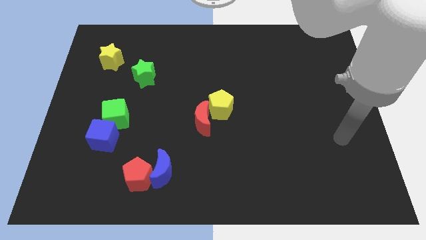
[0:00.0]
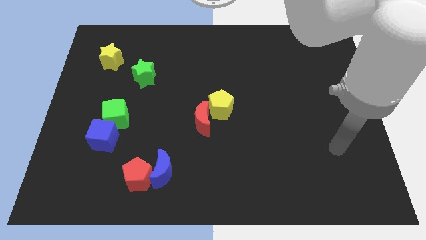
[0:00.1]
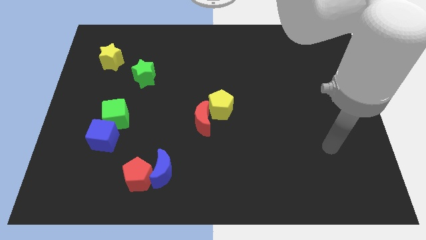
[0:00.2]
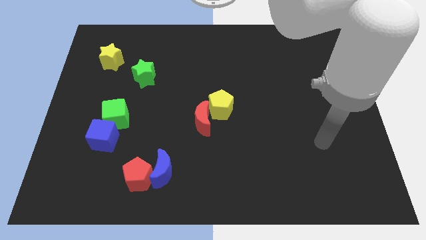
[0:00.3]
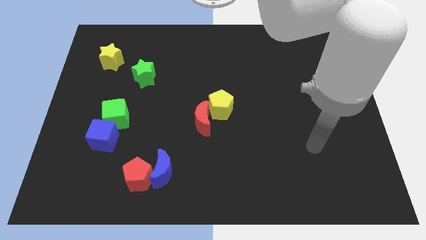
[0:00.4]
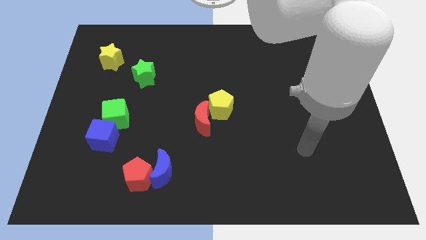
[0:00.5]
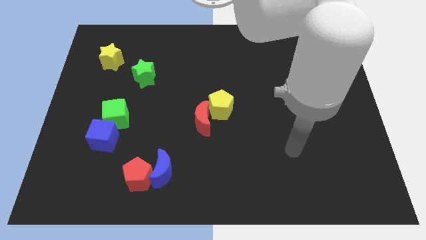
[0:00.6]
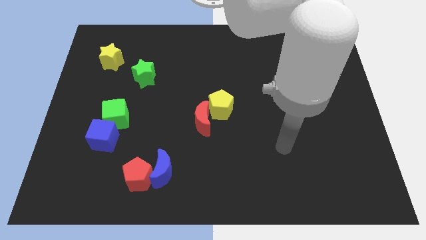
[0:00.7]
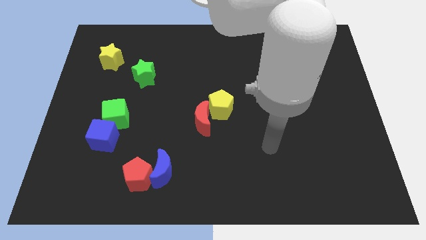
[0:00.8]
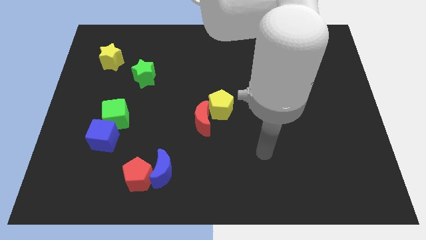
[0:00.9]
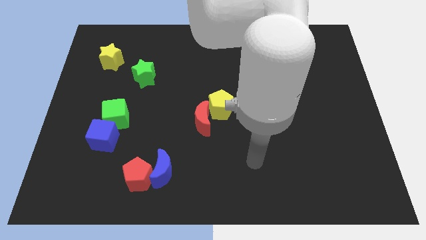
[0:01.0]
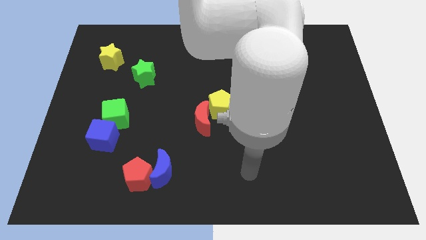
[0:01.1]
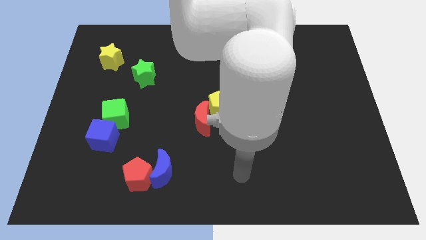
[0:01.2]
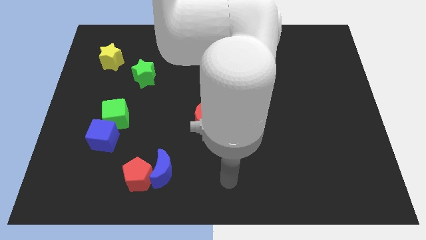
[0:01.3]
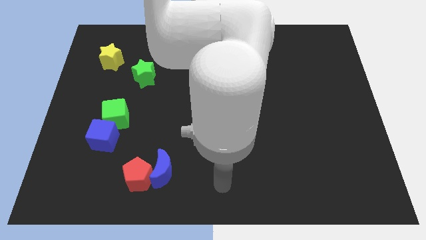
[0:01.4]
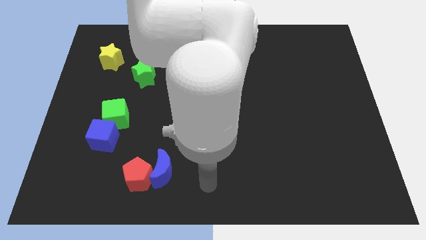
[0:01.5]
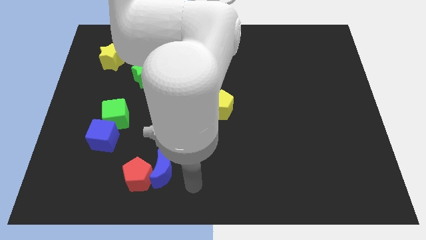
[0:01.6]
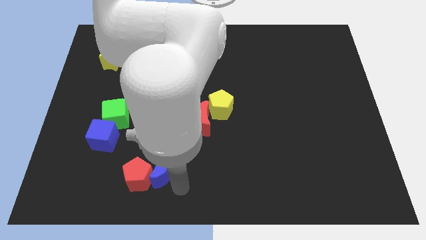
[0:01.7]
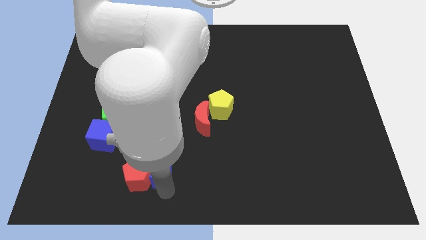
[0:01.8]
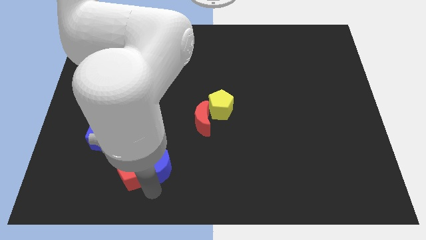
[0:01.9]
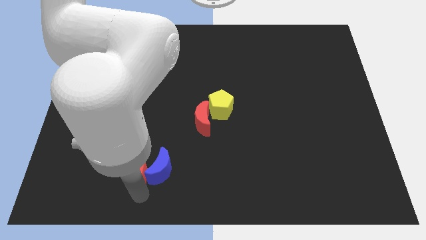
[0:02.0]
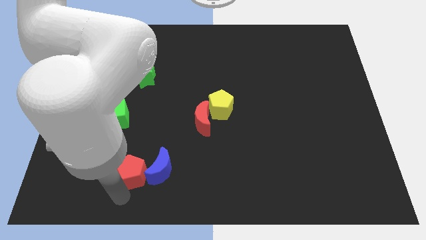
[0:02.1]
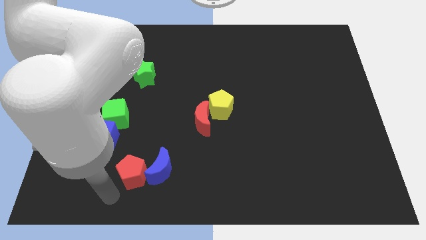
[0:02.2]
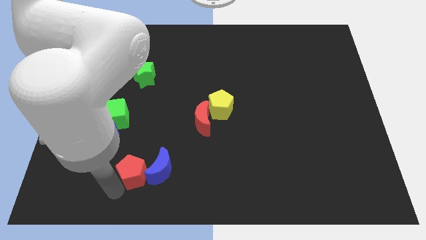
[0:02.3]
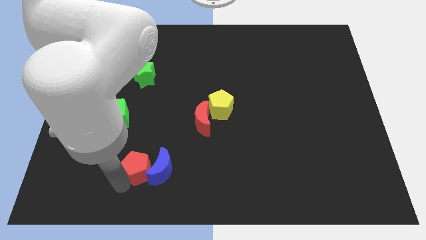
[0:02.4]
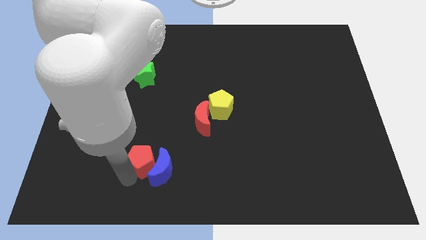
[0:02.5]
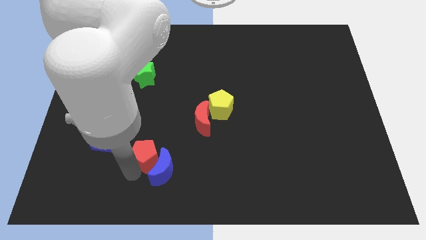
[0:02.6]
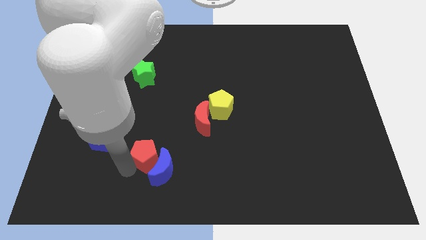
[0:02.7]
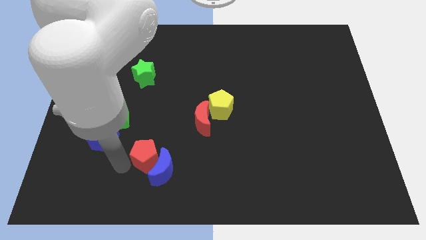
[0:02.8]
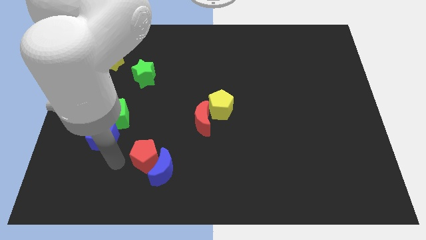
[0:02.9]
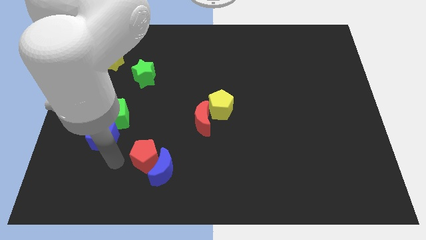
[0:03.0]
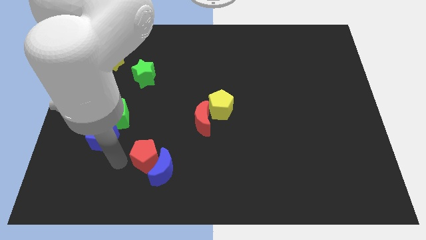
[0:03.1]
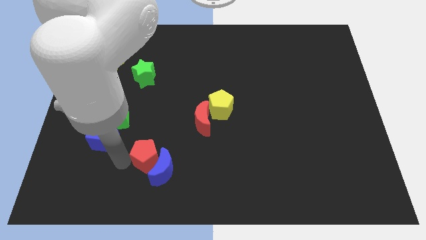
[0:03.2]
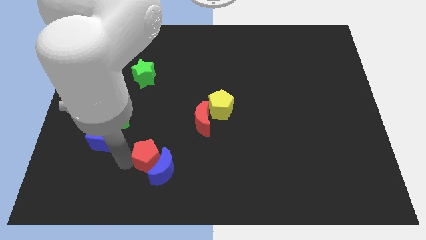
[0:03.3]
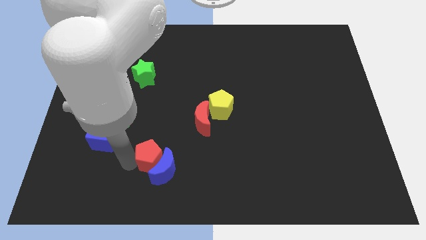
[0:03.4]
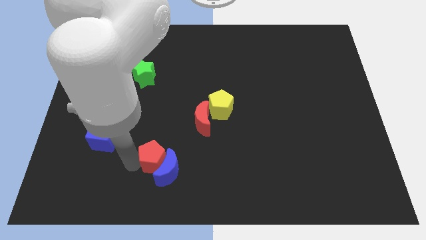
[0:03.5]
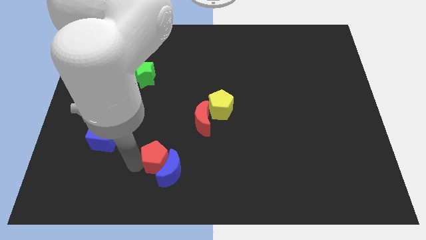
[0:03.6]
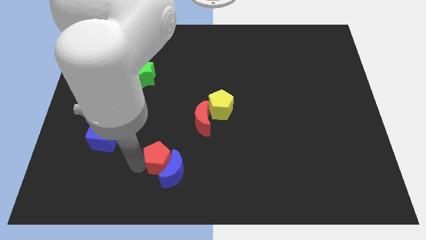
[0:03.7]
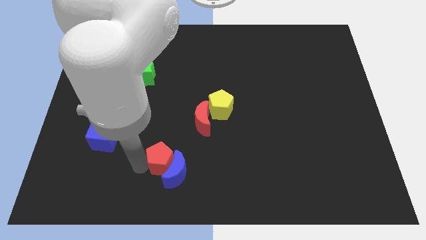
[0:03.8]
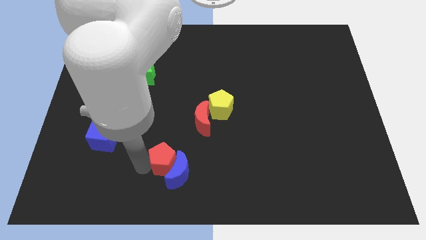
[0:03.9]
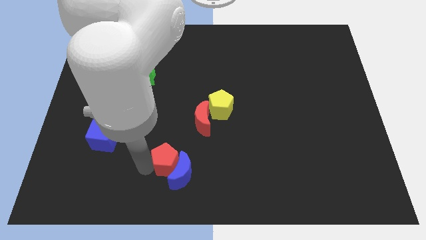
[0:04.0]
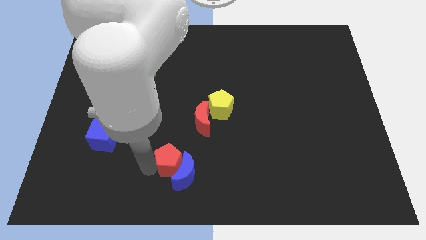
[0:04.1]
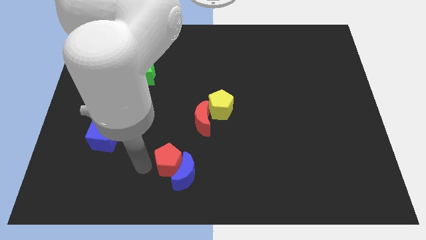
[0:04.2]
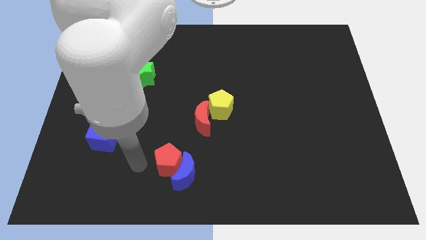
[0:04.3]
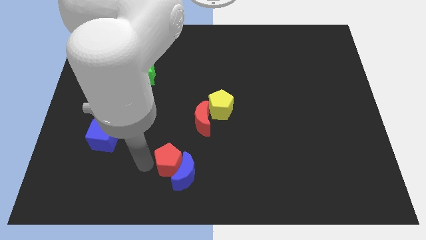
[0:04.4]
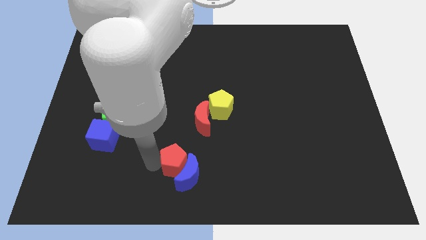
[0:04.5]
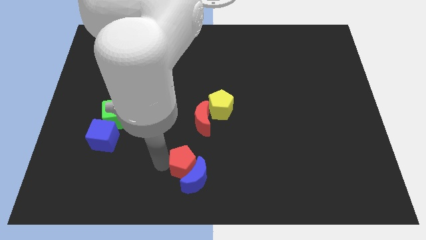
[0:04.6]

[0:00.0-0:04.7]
push the red pentagon to the bottom side of the red moon

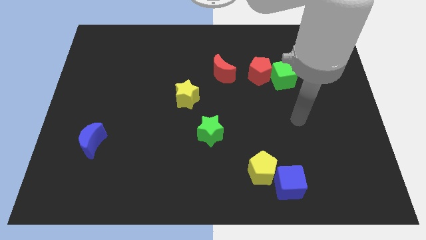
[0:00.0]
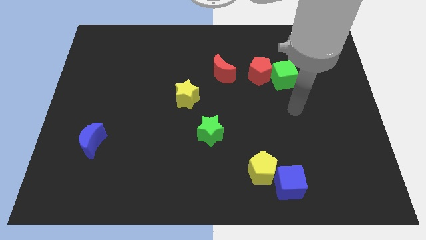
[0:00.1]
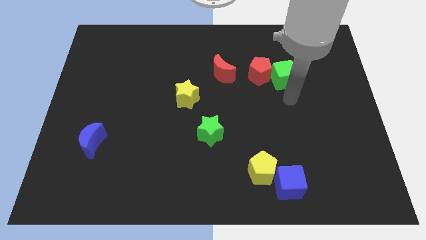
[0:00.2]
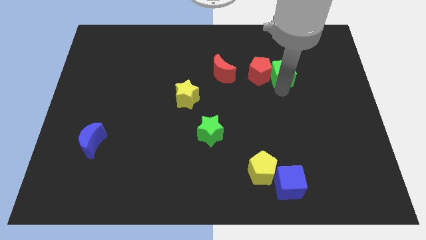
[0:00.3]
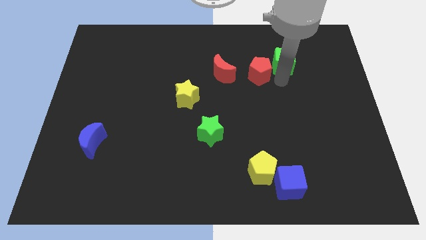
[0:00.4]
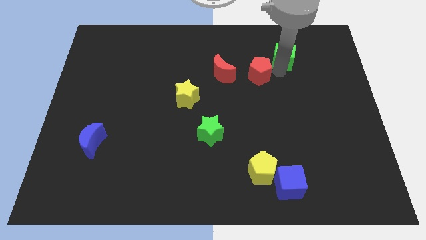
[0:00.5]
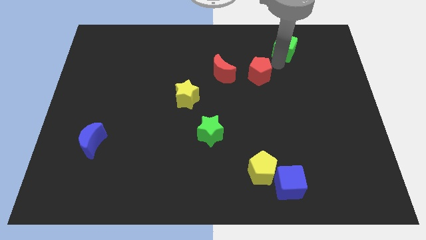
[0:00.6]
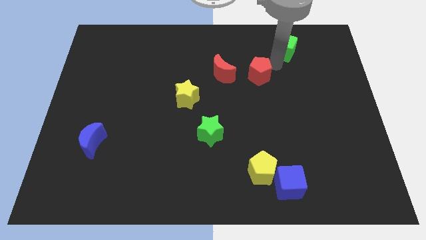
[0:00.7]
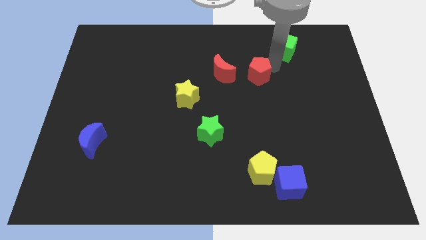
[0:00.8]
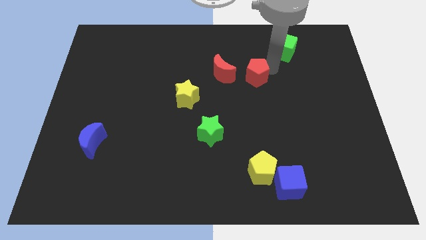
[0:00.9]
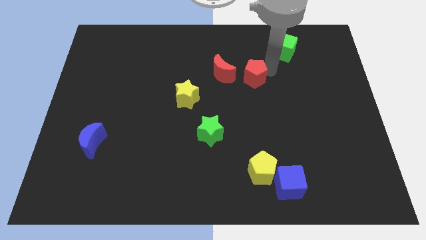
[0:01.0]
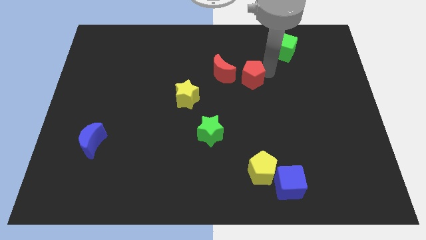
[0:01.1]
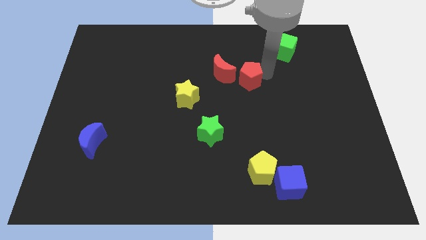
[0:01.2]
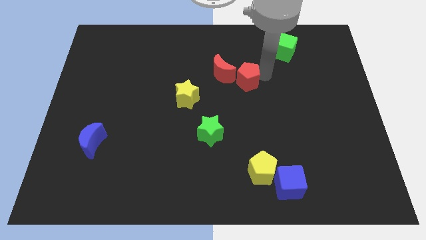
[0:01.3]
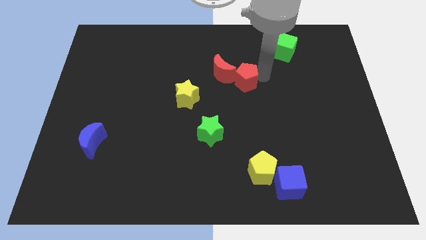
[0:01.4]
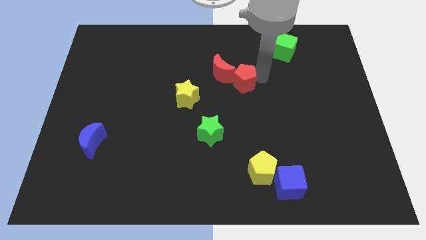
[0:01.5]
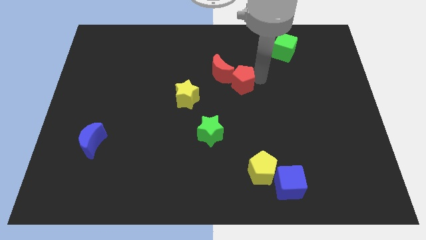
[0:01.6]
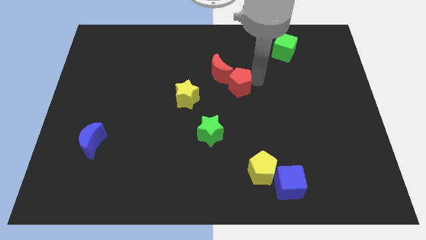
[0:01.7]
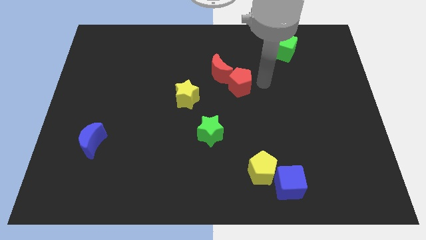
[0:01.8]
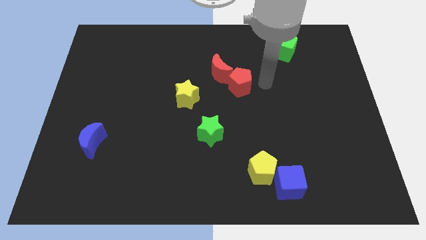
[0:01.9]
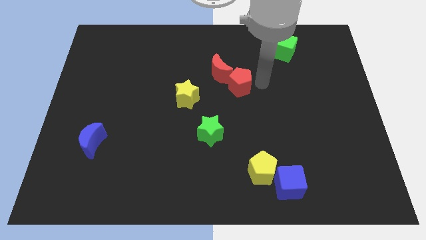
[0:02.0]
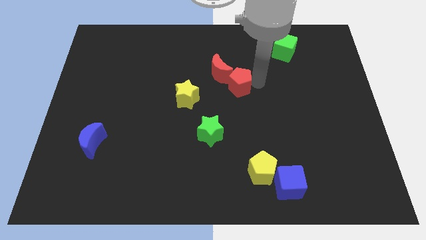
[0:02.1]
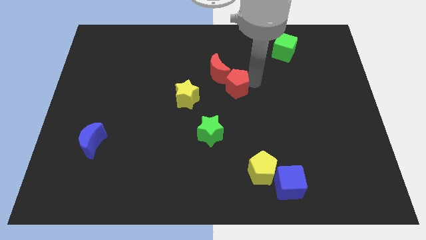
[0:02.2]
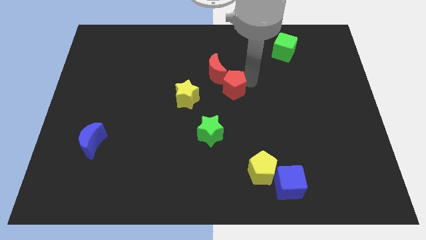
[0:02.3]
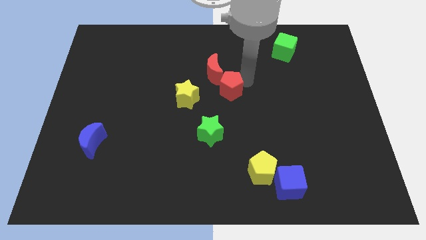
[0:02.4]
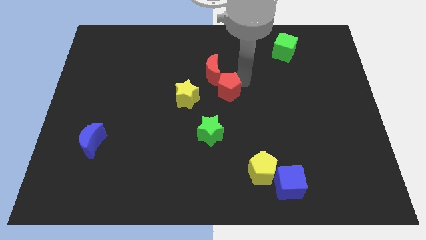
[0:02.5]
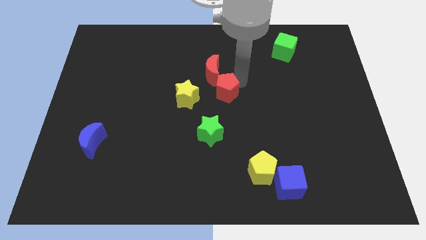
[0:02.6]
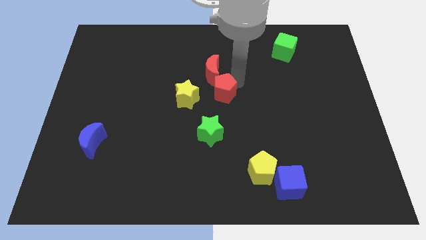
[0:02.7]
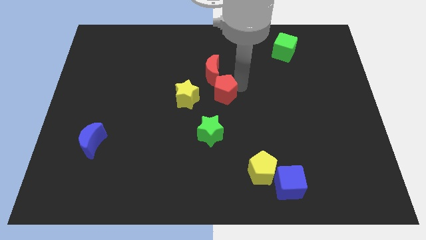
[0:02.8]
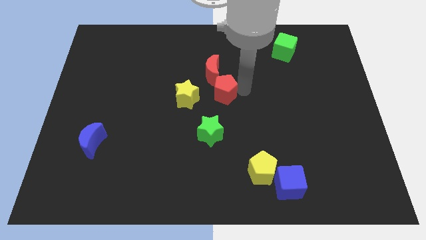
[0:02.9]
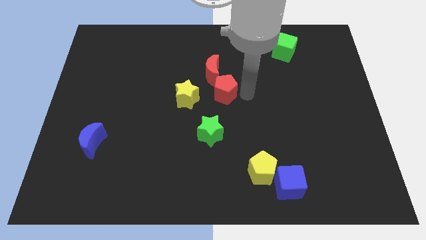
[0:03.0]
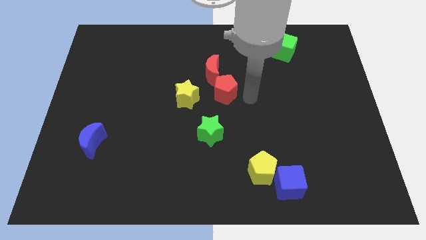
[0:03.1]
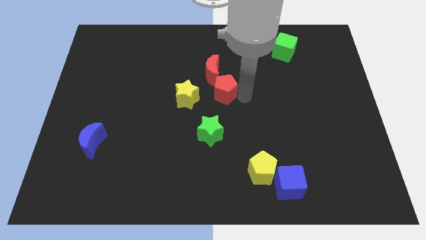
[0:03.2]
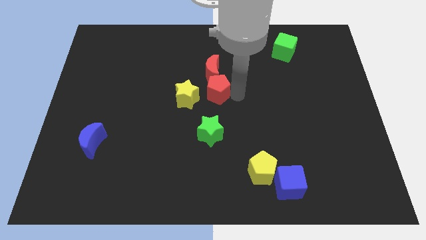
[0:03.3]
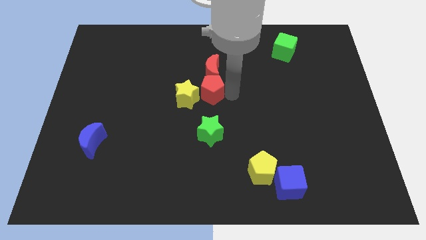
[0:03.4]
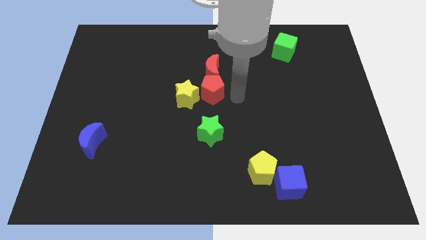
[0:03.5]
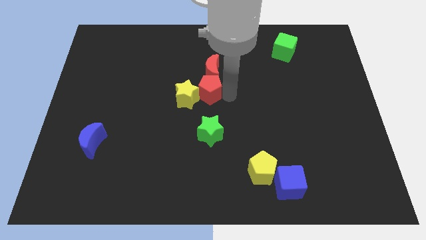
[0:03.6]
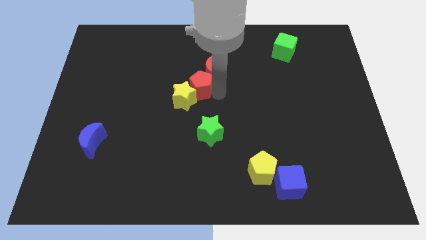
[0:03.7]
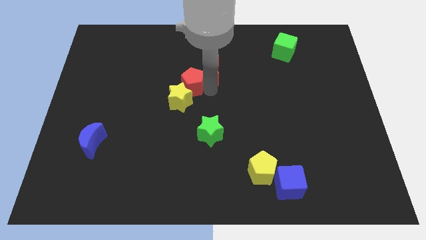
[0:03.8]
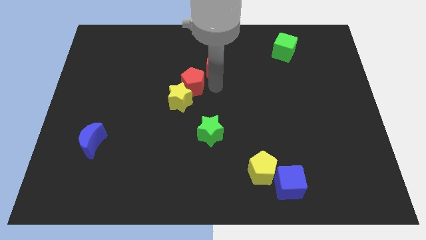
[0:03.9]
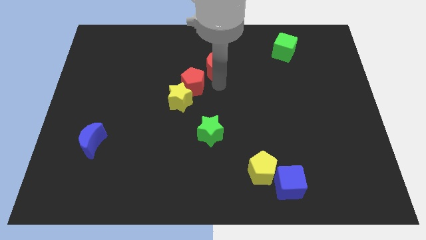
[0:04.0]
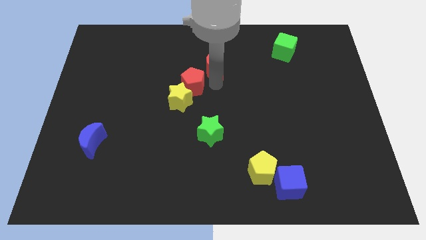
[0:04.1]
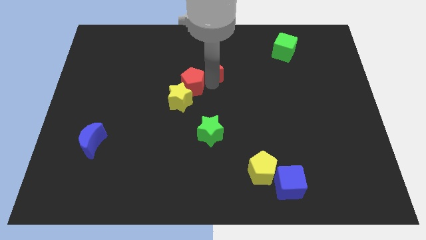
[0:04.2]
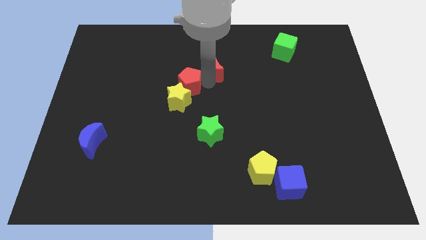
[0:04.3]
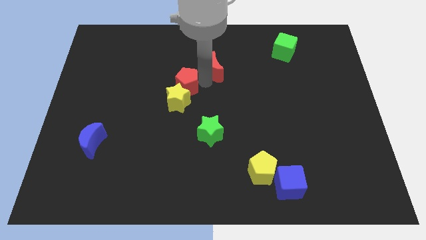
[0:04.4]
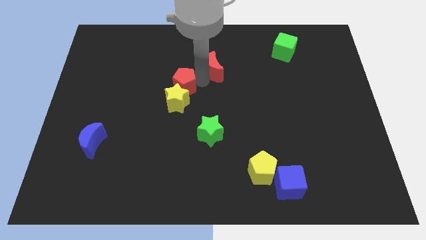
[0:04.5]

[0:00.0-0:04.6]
put the red pentagon to the top left of the yellow star
